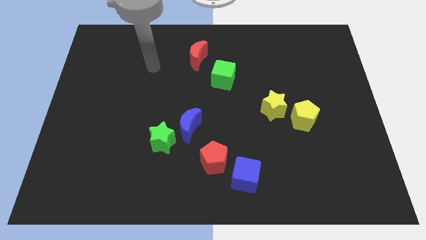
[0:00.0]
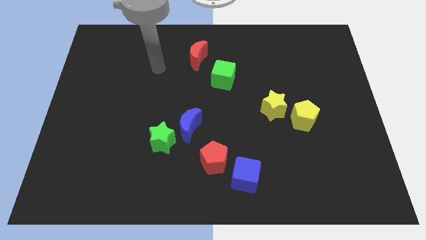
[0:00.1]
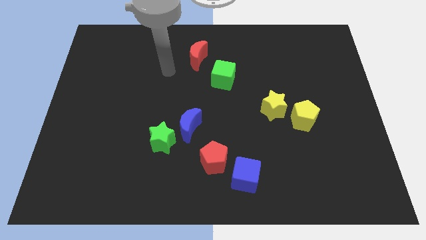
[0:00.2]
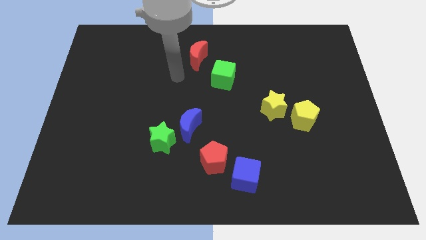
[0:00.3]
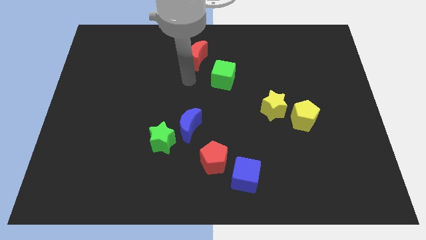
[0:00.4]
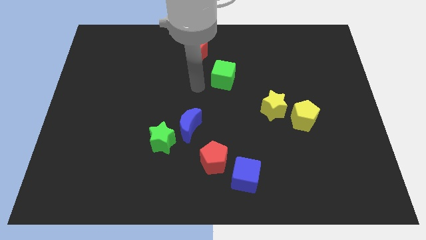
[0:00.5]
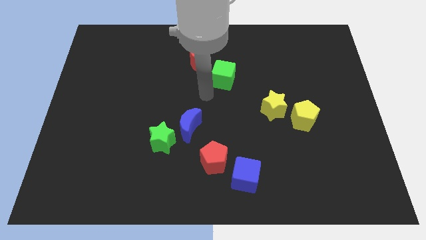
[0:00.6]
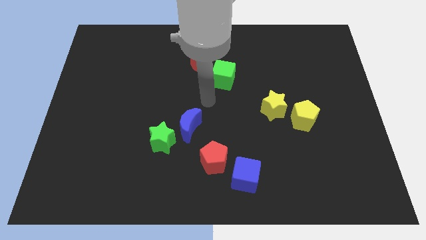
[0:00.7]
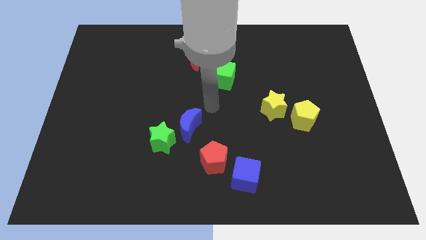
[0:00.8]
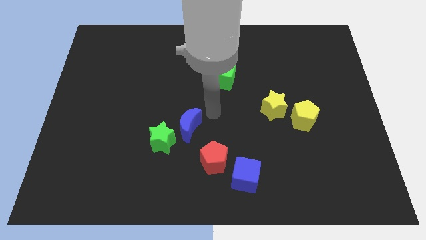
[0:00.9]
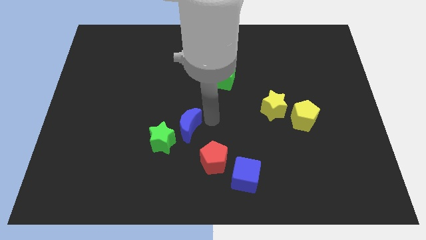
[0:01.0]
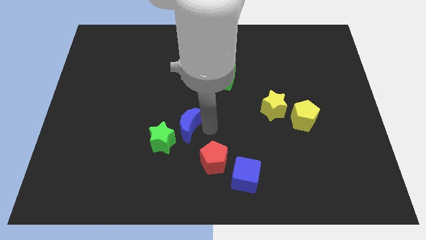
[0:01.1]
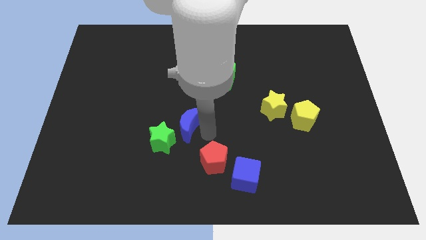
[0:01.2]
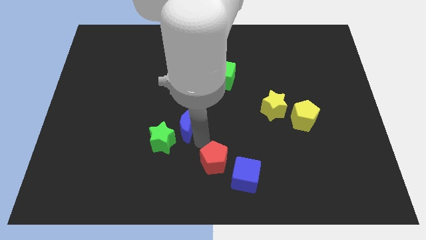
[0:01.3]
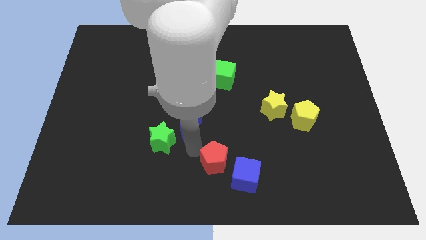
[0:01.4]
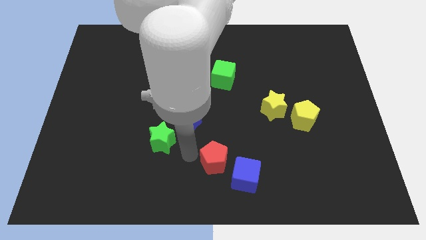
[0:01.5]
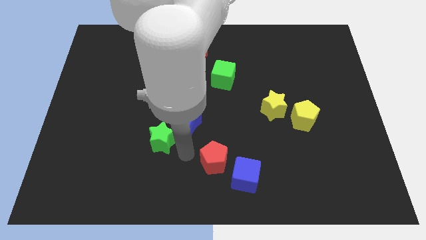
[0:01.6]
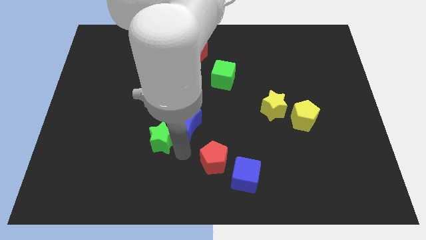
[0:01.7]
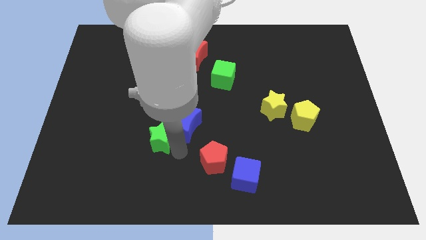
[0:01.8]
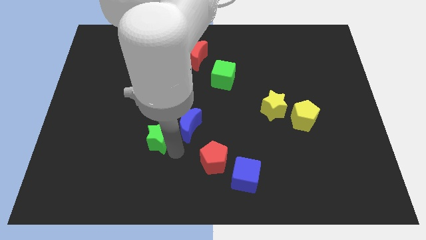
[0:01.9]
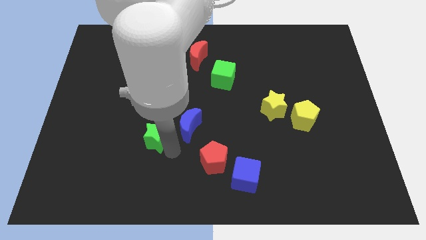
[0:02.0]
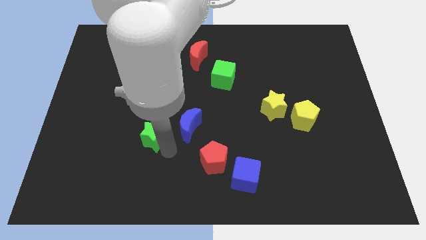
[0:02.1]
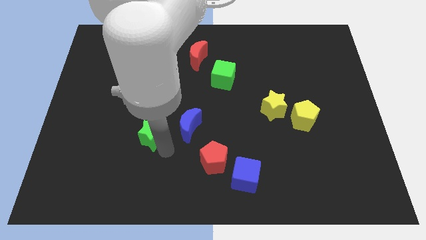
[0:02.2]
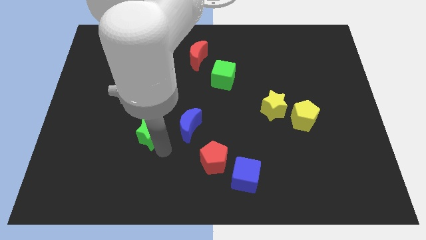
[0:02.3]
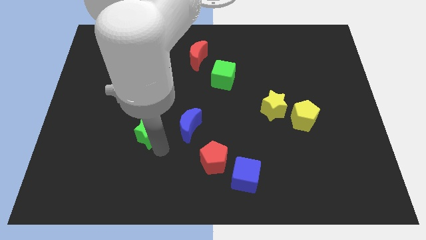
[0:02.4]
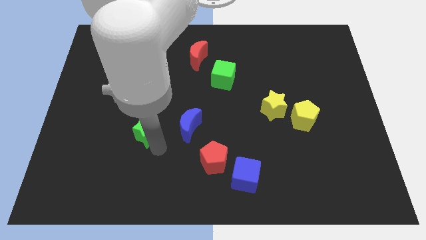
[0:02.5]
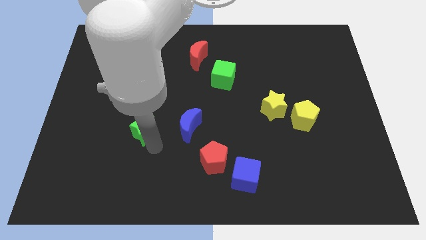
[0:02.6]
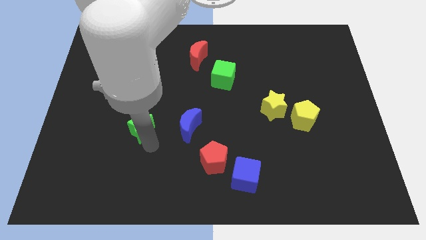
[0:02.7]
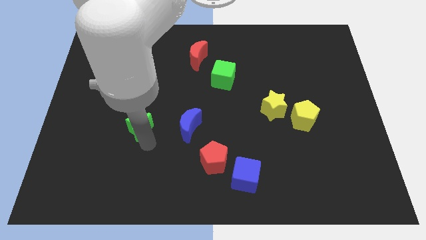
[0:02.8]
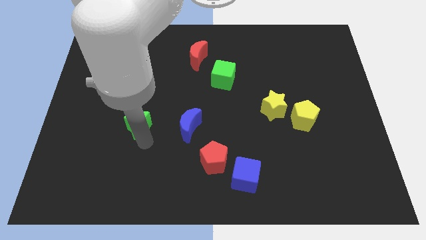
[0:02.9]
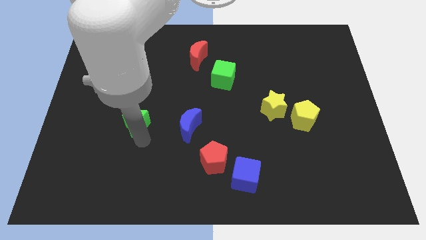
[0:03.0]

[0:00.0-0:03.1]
move the green star diagonally upwards and left slightly

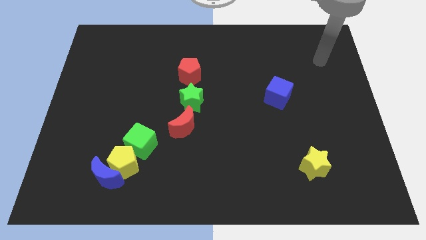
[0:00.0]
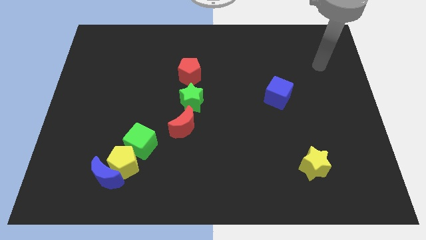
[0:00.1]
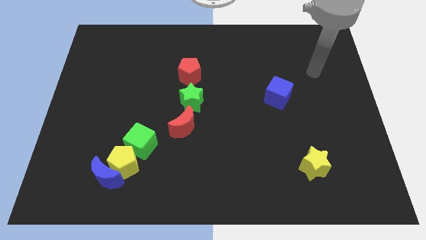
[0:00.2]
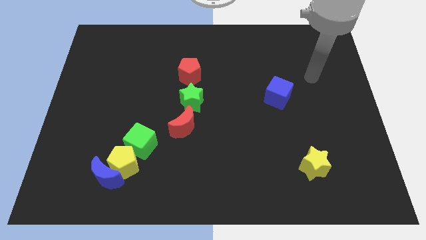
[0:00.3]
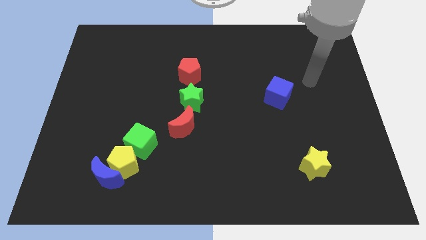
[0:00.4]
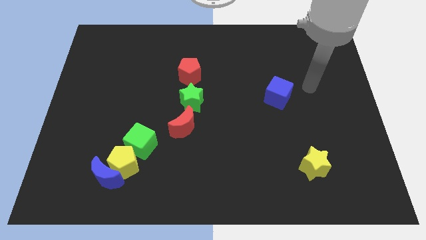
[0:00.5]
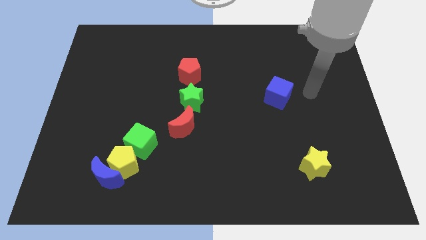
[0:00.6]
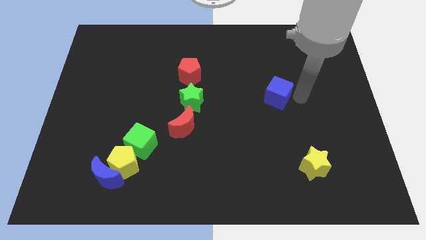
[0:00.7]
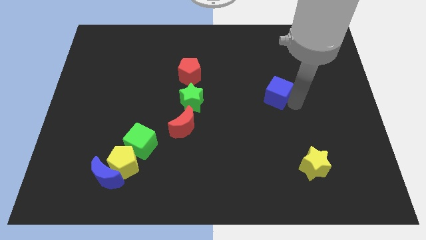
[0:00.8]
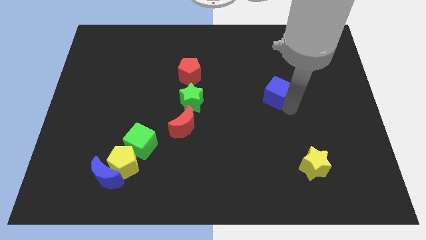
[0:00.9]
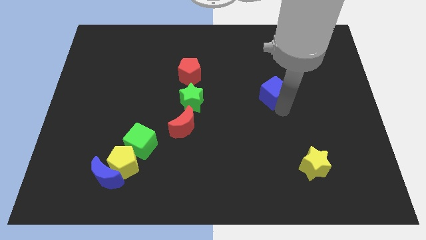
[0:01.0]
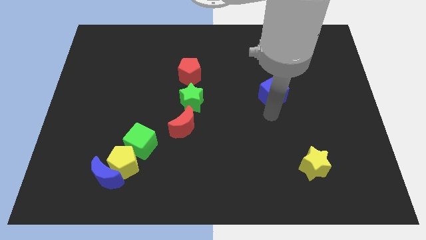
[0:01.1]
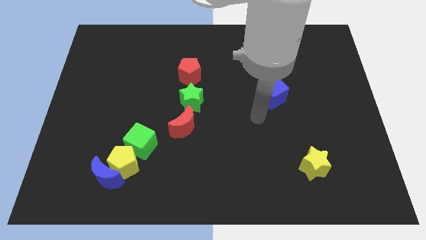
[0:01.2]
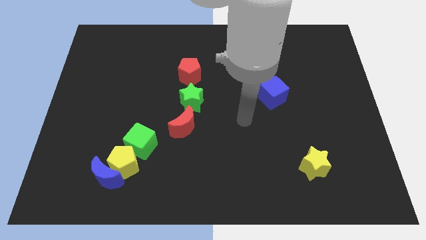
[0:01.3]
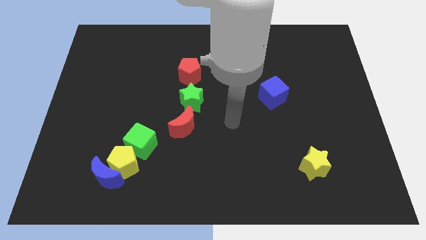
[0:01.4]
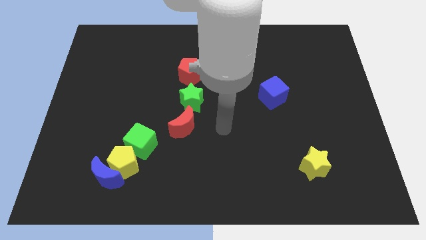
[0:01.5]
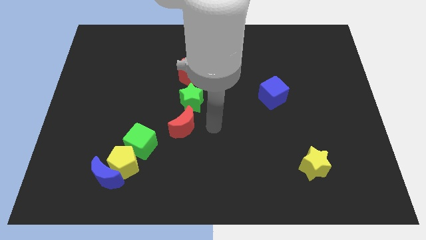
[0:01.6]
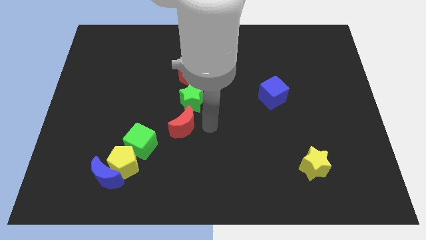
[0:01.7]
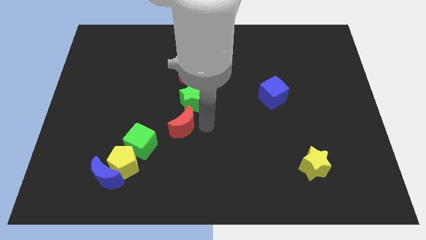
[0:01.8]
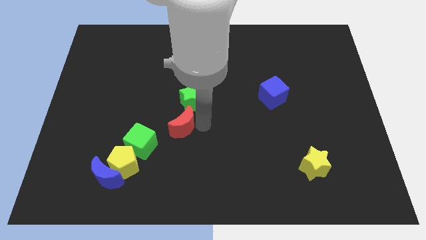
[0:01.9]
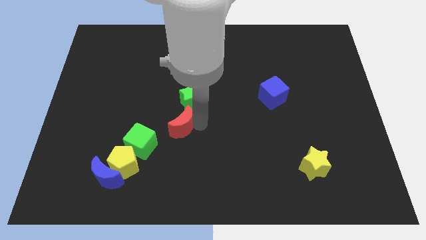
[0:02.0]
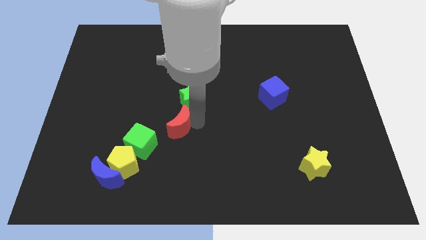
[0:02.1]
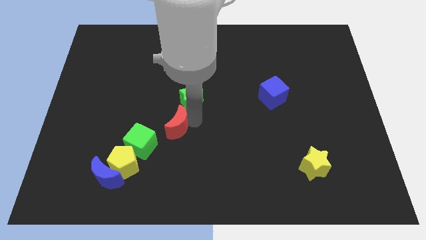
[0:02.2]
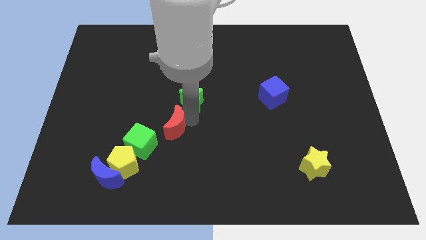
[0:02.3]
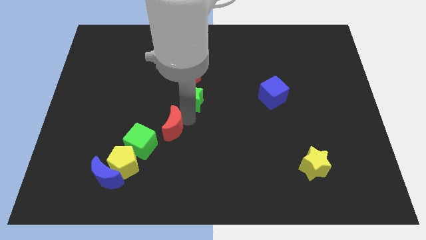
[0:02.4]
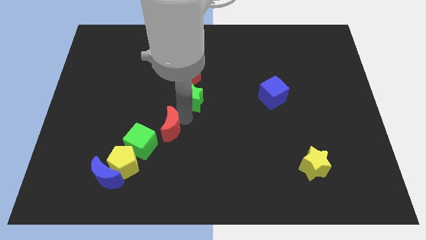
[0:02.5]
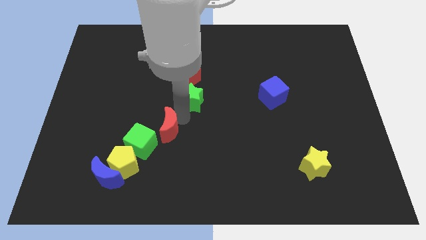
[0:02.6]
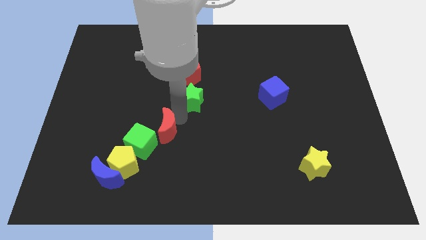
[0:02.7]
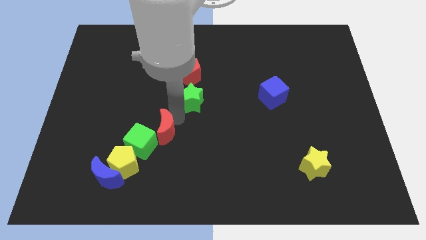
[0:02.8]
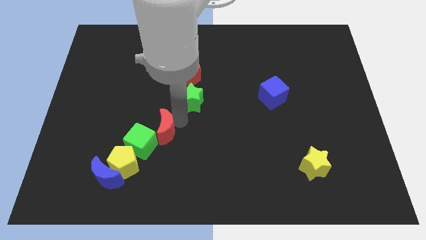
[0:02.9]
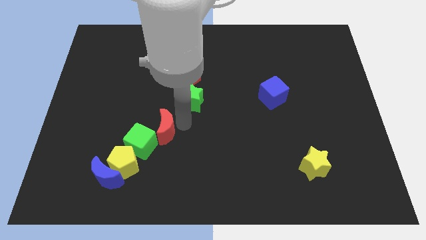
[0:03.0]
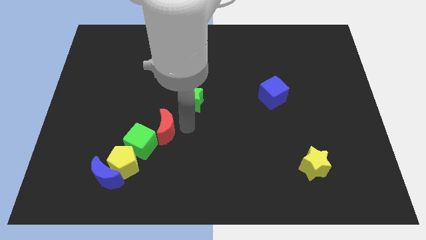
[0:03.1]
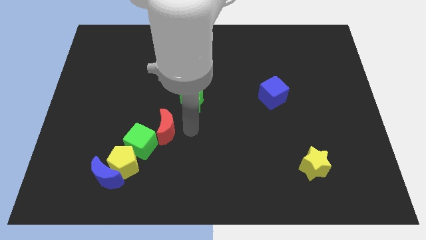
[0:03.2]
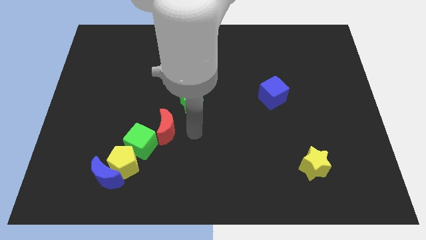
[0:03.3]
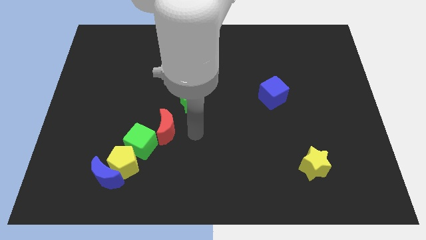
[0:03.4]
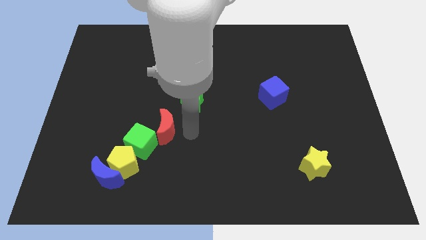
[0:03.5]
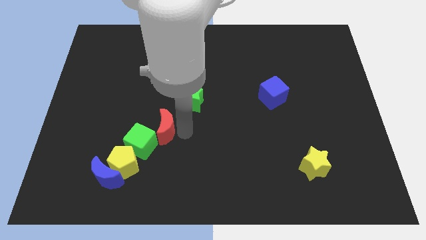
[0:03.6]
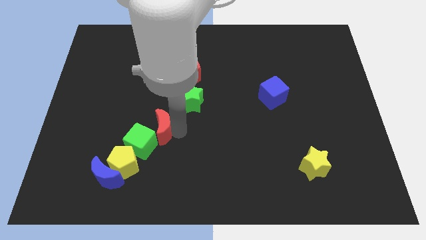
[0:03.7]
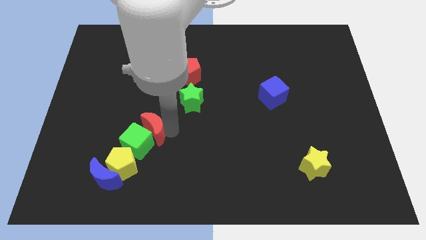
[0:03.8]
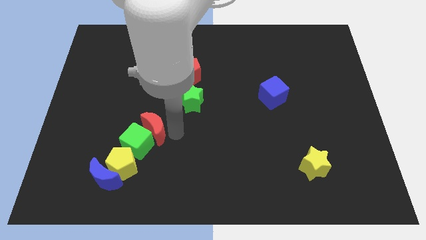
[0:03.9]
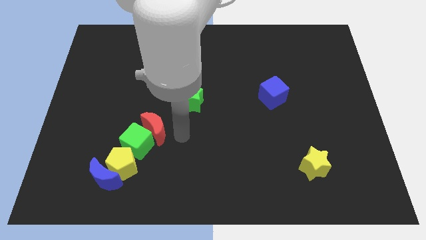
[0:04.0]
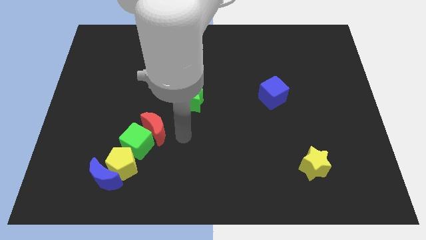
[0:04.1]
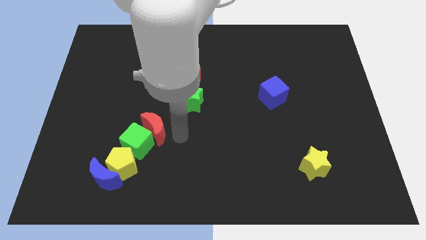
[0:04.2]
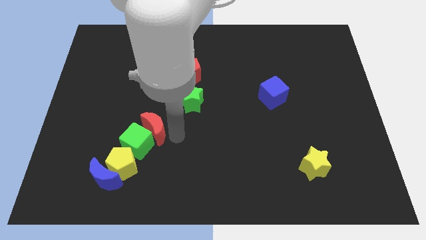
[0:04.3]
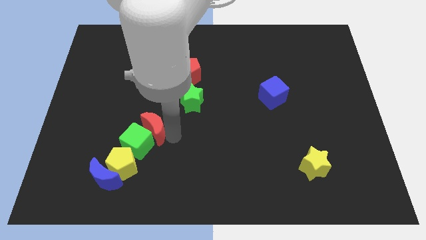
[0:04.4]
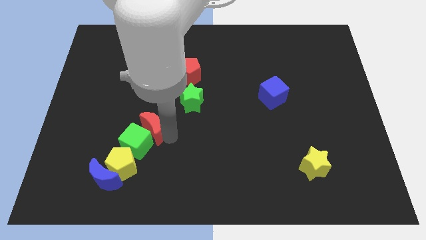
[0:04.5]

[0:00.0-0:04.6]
slightly slide the red moon to the left

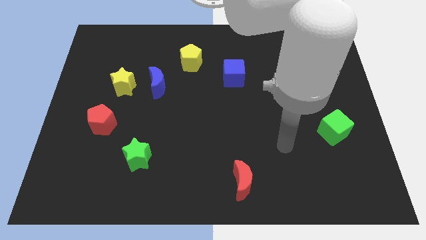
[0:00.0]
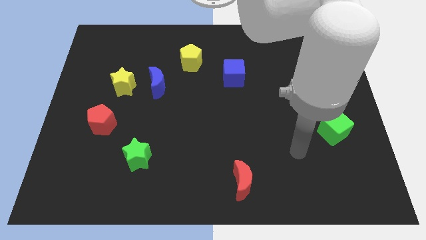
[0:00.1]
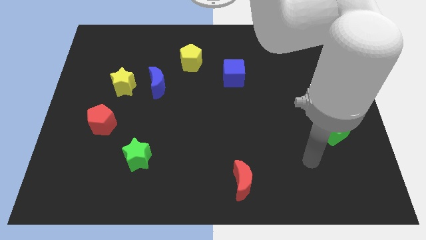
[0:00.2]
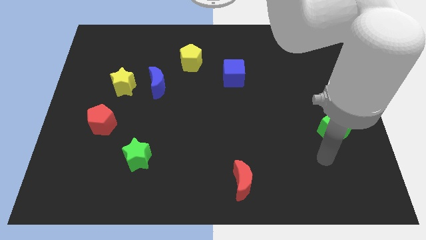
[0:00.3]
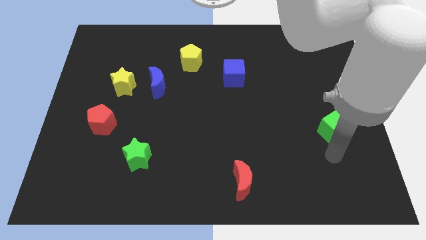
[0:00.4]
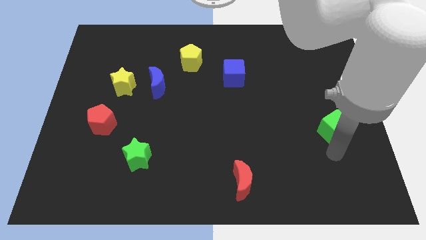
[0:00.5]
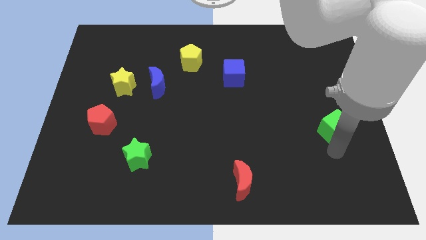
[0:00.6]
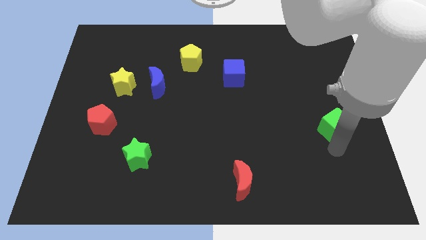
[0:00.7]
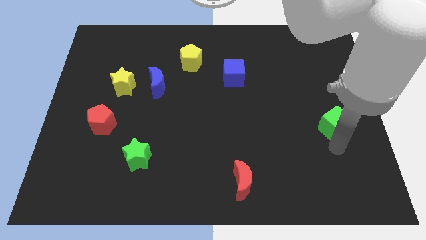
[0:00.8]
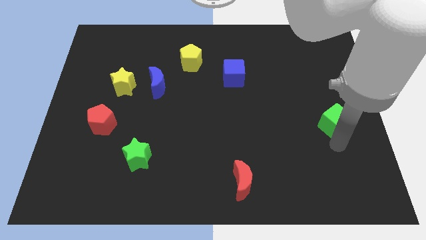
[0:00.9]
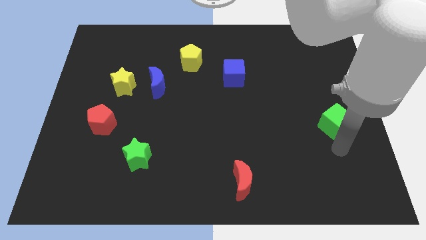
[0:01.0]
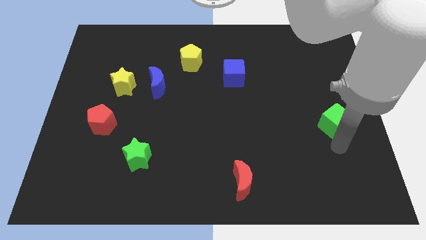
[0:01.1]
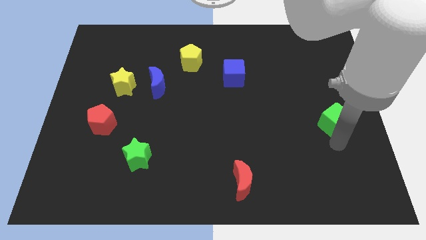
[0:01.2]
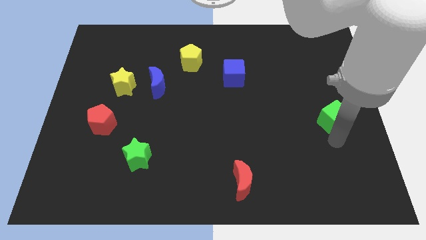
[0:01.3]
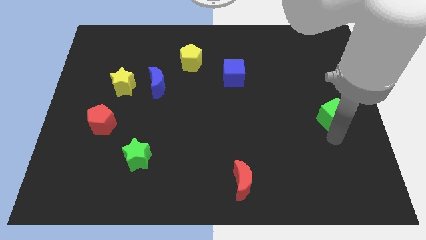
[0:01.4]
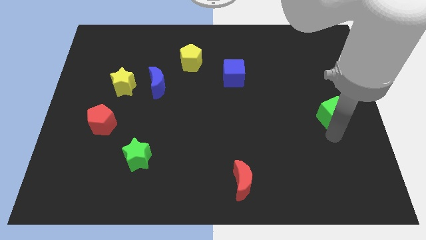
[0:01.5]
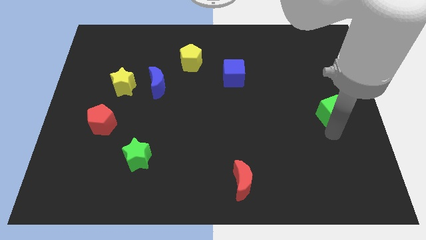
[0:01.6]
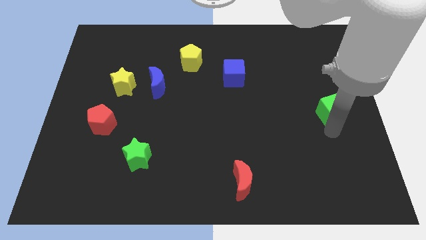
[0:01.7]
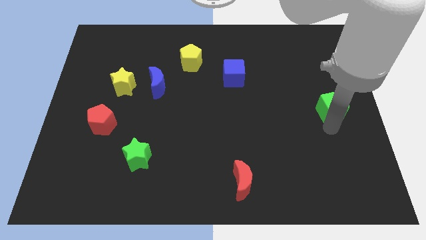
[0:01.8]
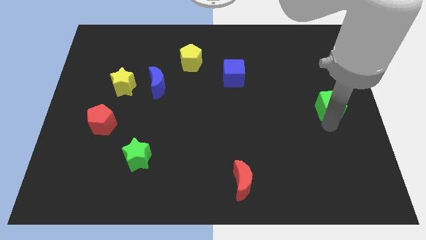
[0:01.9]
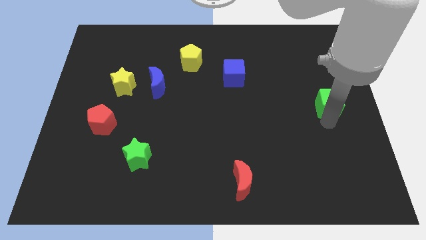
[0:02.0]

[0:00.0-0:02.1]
slightly push the green cube upwards
